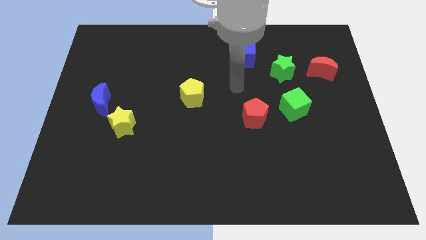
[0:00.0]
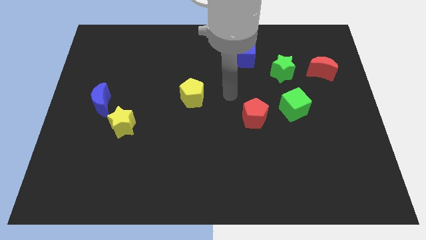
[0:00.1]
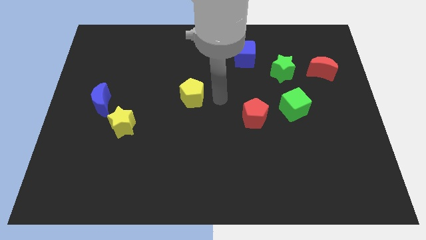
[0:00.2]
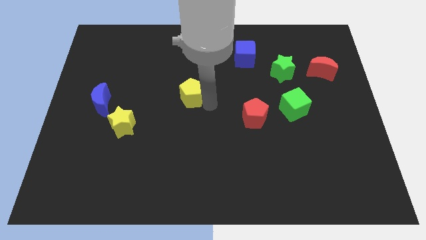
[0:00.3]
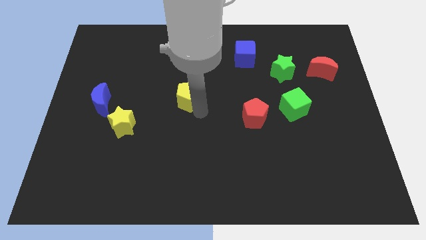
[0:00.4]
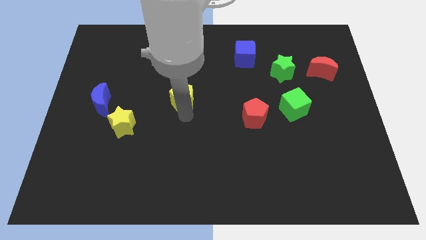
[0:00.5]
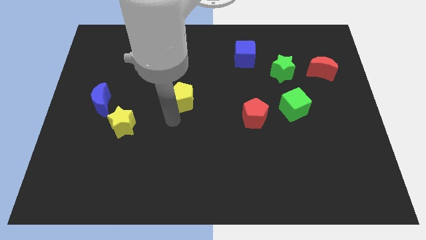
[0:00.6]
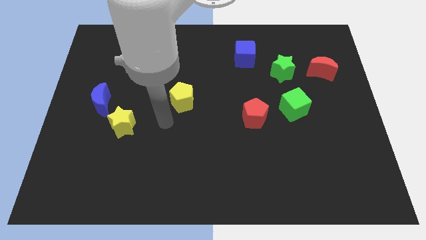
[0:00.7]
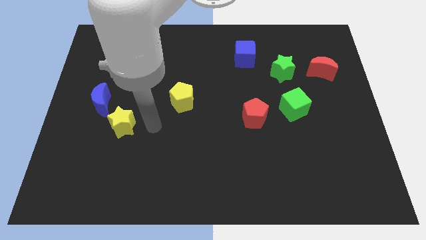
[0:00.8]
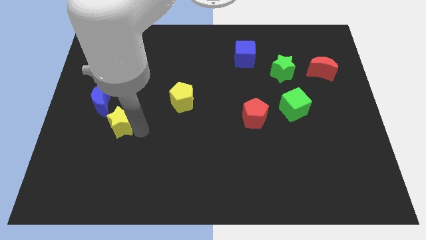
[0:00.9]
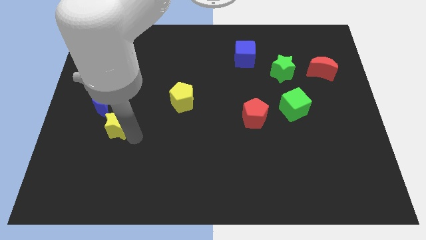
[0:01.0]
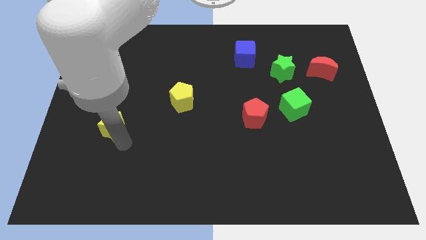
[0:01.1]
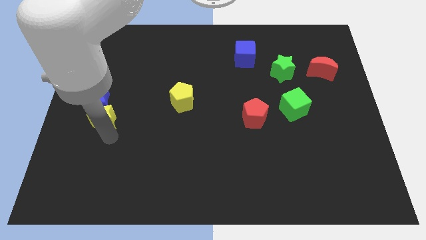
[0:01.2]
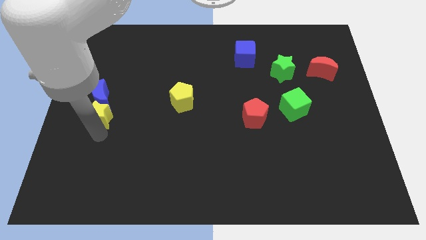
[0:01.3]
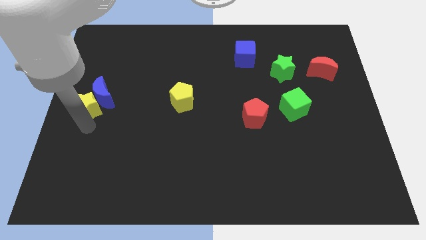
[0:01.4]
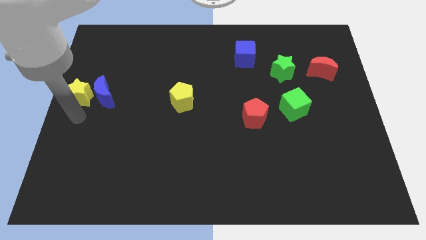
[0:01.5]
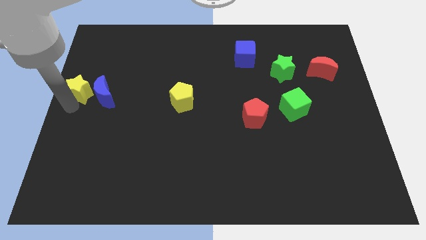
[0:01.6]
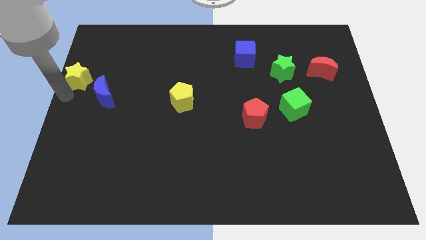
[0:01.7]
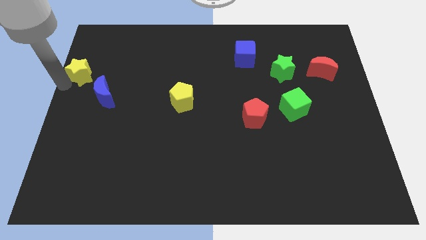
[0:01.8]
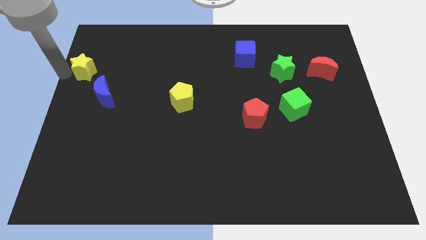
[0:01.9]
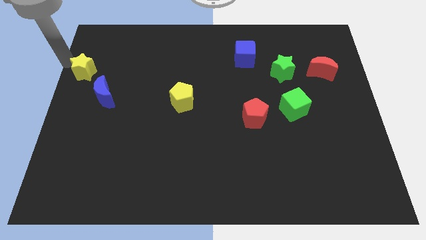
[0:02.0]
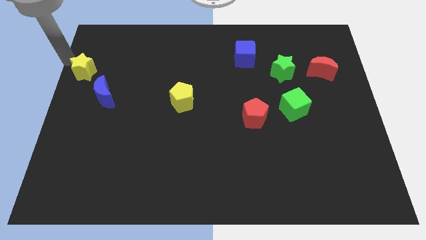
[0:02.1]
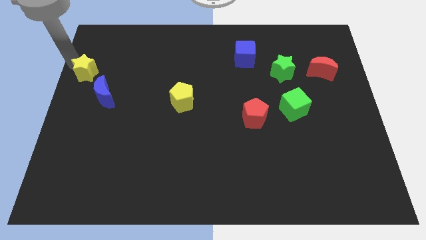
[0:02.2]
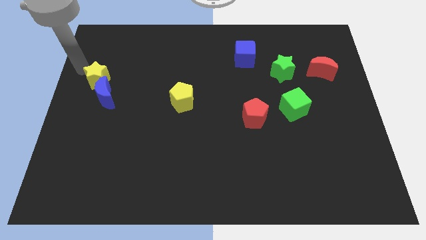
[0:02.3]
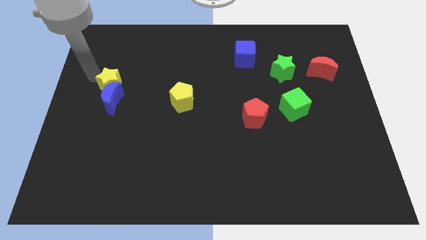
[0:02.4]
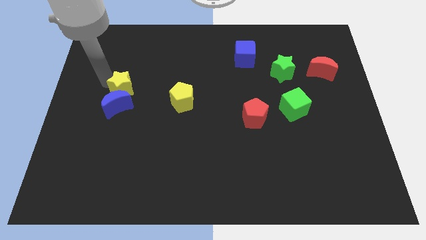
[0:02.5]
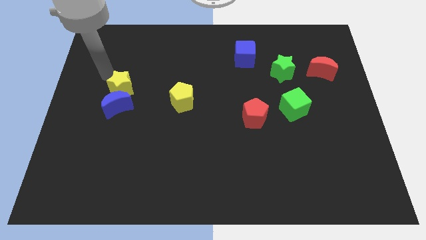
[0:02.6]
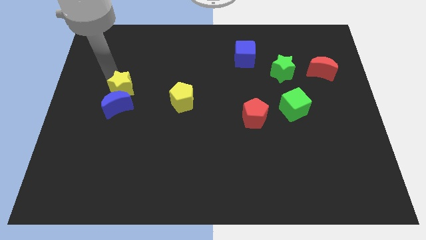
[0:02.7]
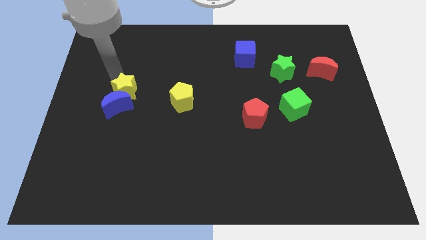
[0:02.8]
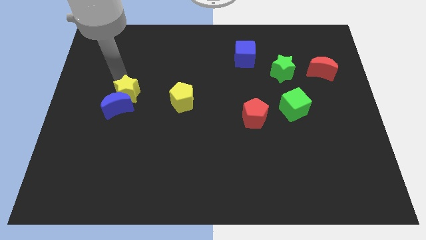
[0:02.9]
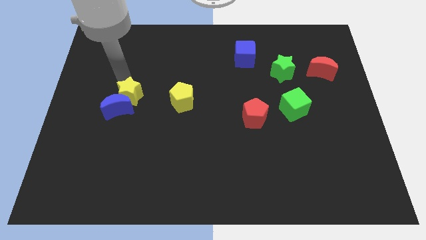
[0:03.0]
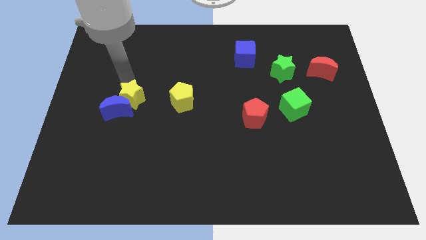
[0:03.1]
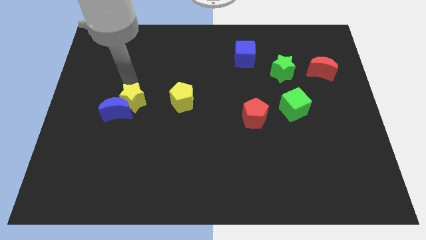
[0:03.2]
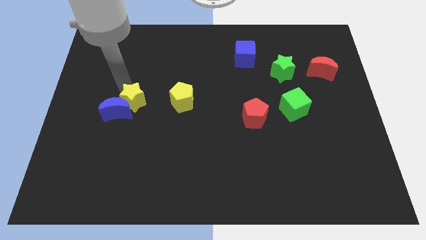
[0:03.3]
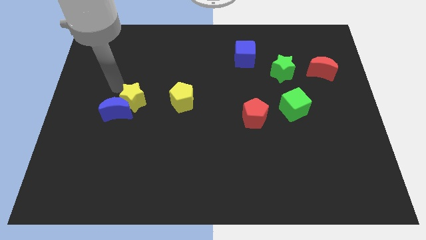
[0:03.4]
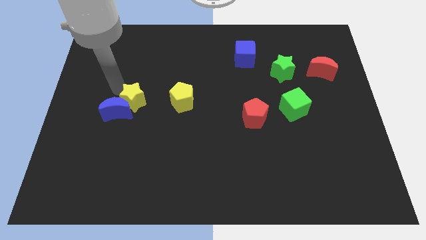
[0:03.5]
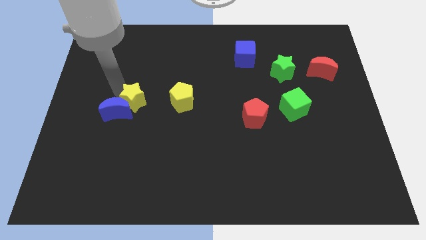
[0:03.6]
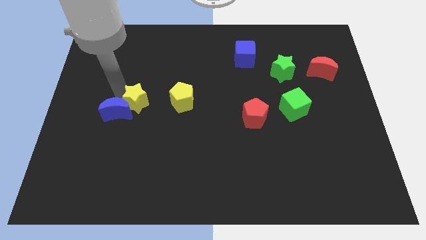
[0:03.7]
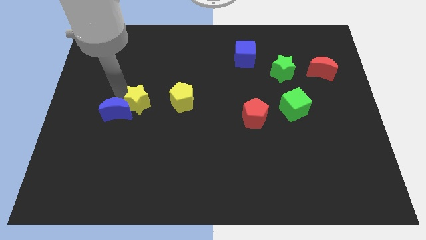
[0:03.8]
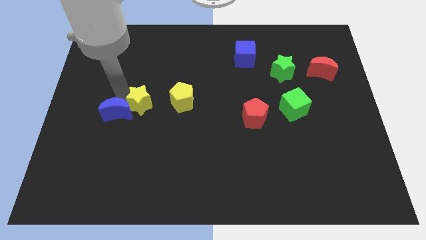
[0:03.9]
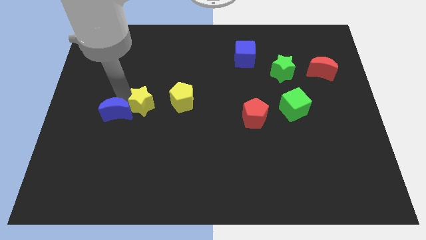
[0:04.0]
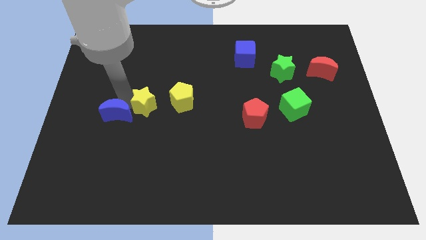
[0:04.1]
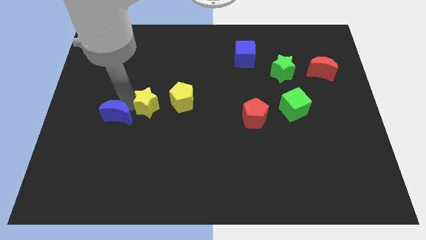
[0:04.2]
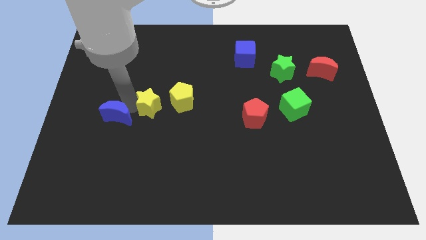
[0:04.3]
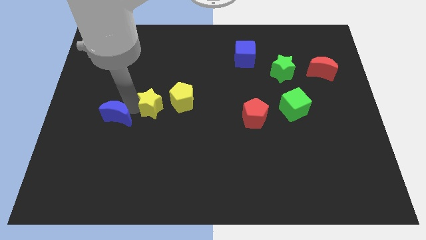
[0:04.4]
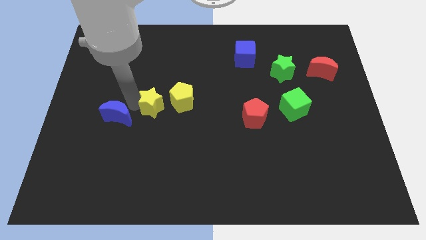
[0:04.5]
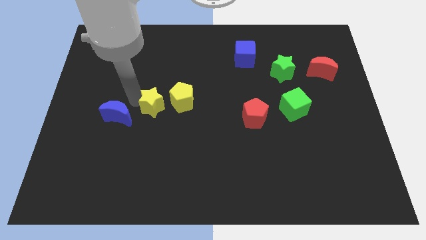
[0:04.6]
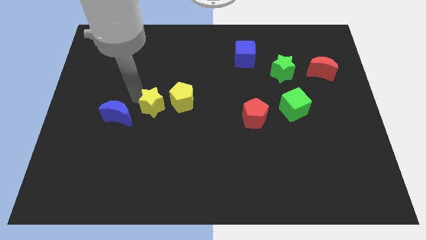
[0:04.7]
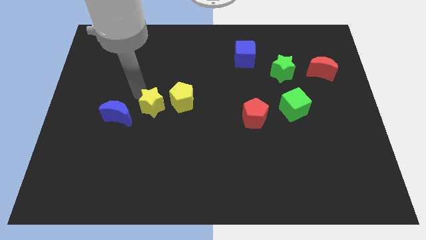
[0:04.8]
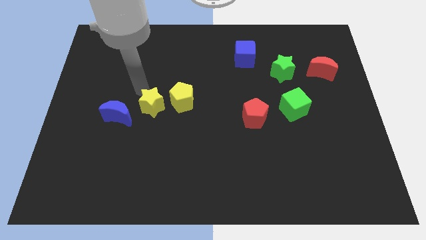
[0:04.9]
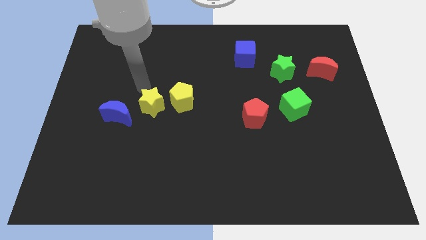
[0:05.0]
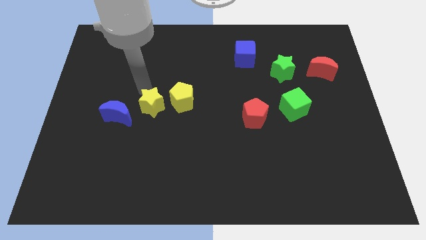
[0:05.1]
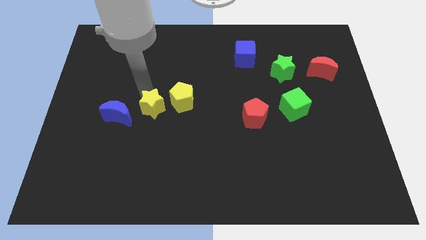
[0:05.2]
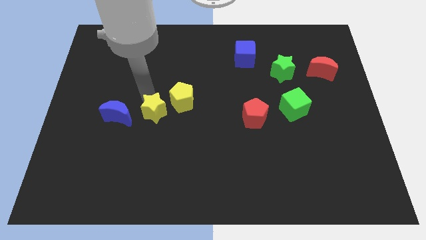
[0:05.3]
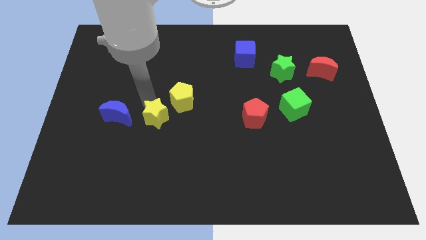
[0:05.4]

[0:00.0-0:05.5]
slide the yellow star to the right a little

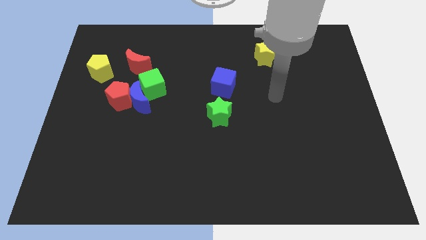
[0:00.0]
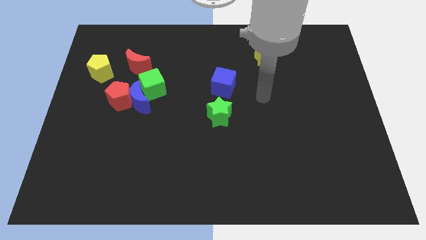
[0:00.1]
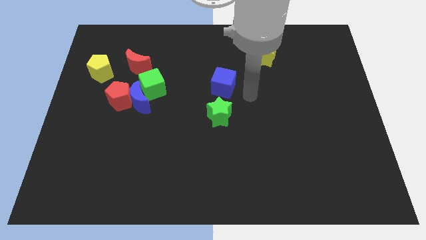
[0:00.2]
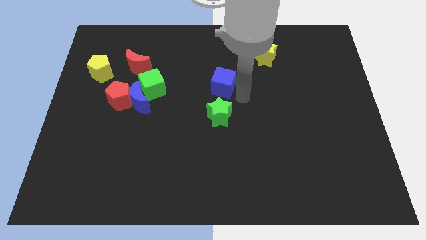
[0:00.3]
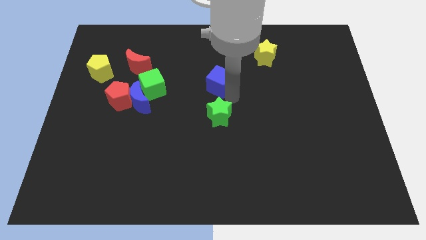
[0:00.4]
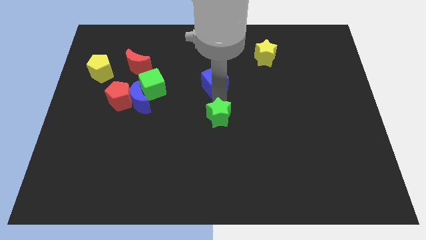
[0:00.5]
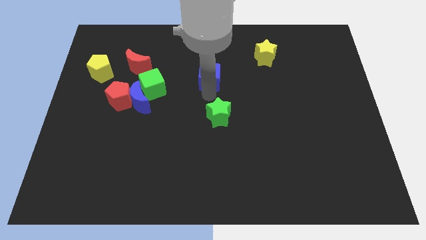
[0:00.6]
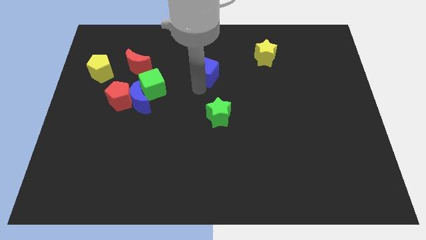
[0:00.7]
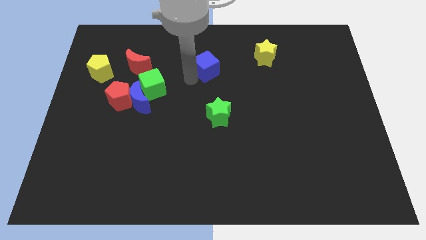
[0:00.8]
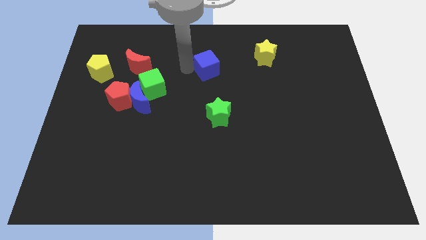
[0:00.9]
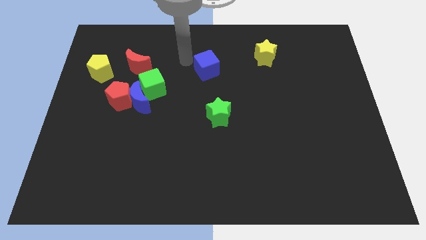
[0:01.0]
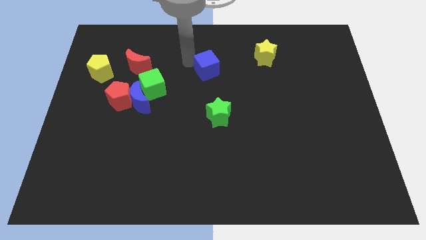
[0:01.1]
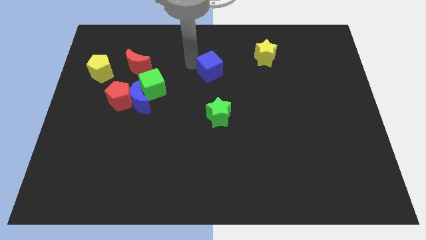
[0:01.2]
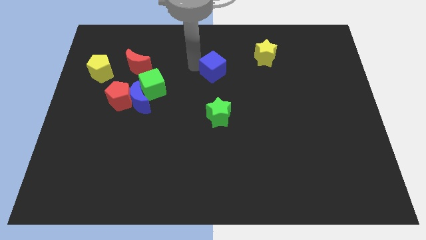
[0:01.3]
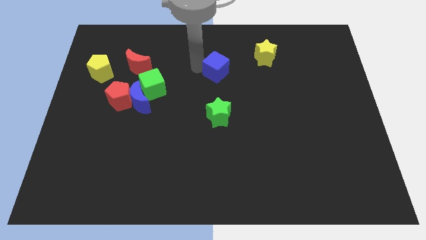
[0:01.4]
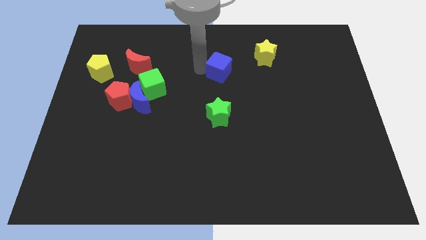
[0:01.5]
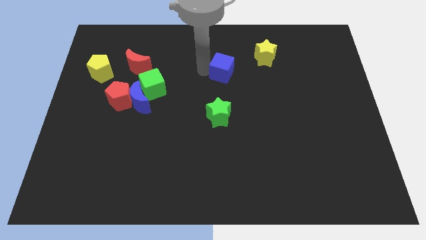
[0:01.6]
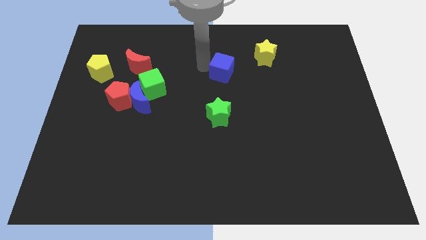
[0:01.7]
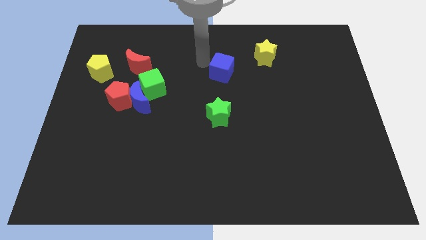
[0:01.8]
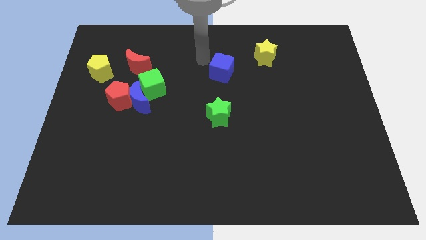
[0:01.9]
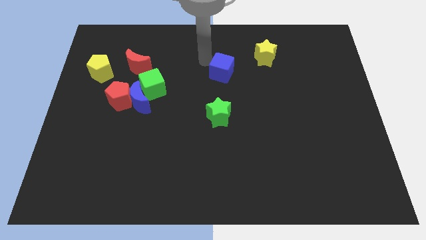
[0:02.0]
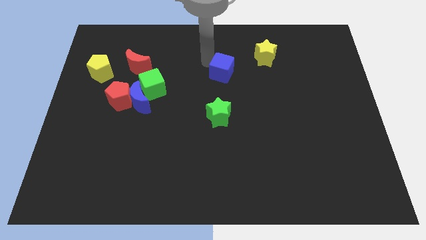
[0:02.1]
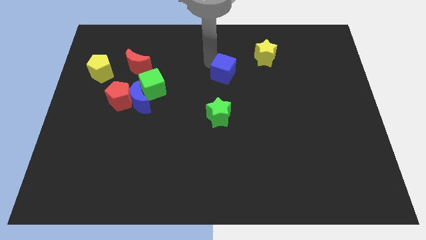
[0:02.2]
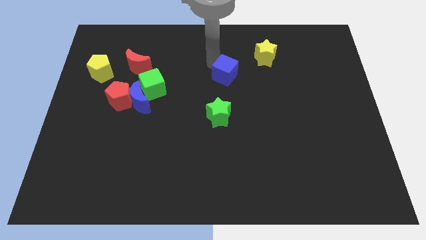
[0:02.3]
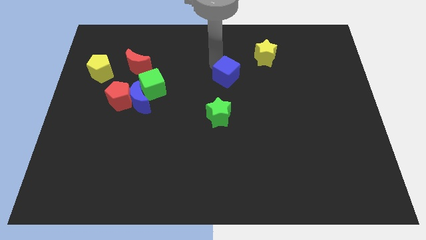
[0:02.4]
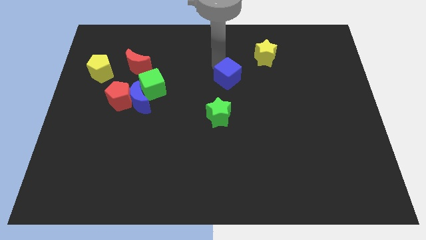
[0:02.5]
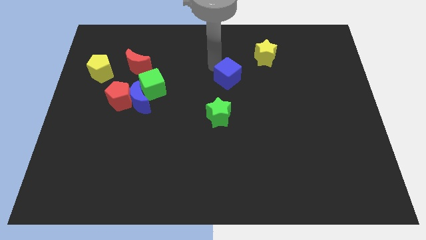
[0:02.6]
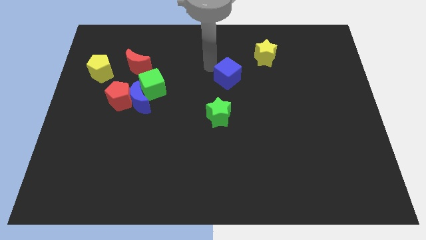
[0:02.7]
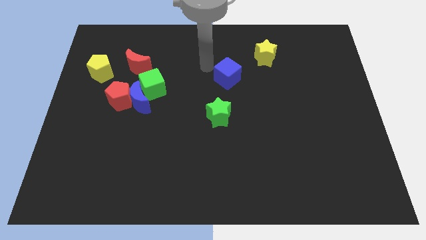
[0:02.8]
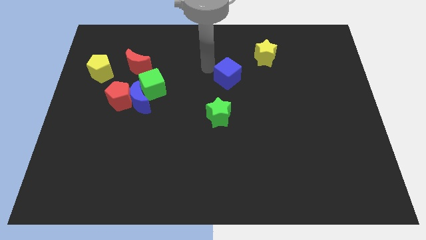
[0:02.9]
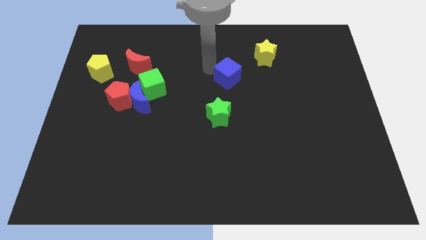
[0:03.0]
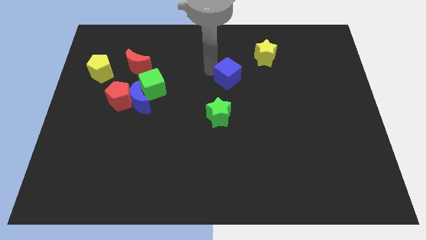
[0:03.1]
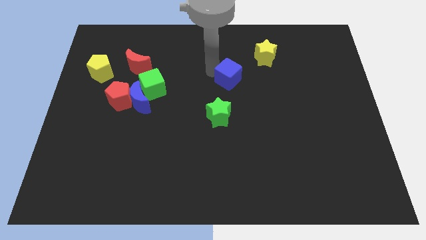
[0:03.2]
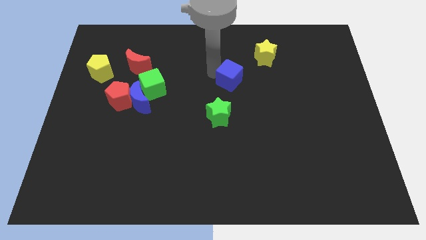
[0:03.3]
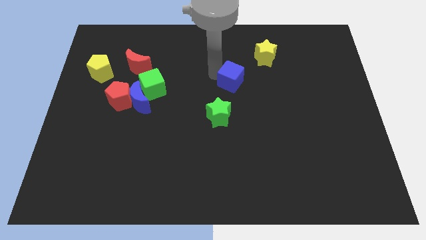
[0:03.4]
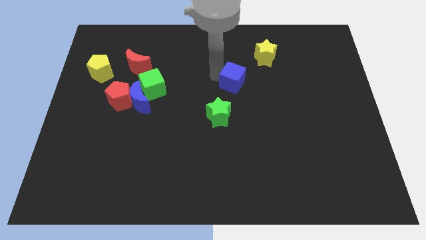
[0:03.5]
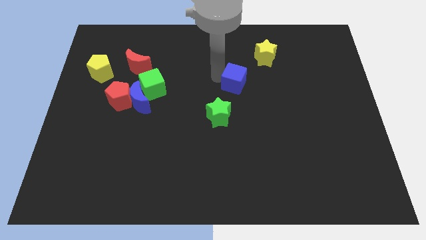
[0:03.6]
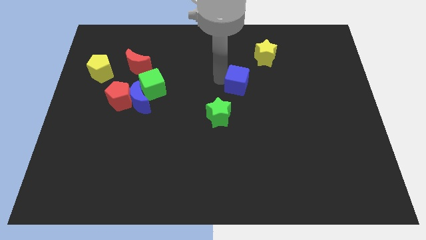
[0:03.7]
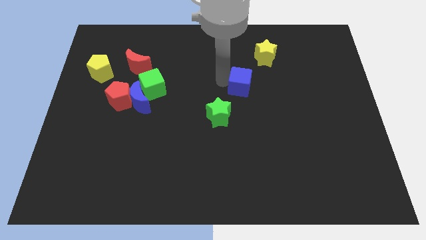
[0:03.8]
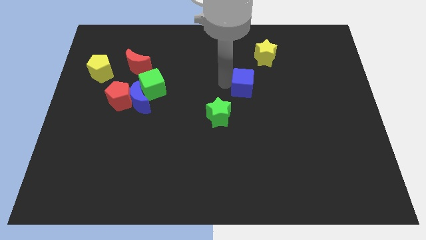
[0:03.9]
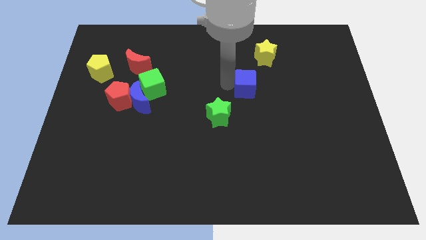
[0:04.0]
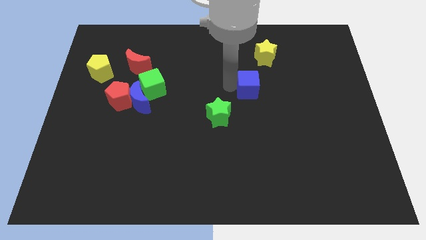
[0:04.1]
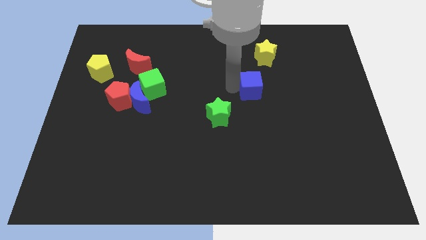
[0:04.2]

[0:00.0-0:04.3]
slightly slide the blue cube right
